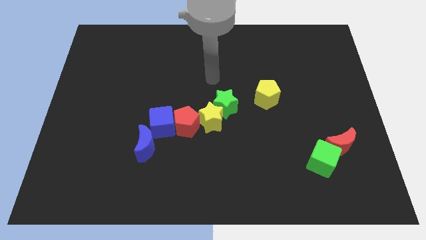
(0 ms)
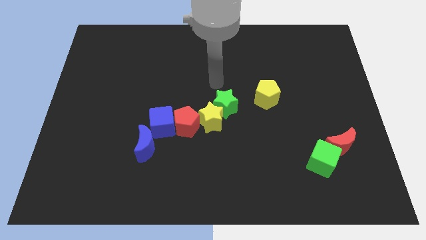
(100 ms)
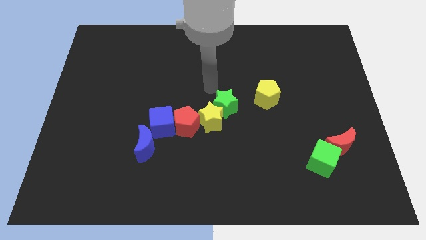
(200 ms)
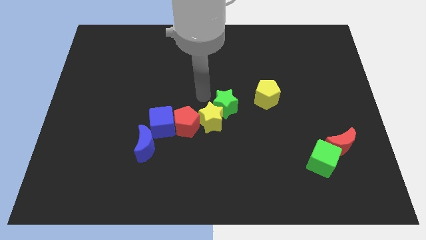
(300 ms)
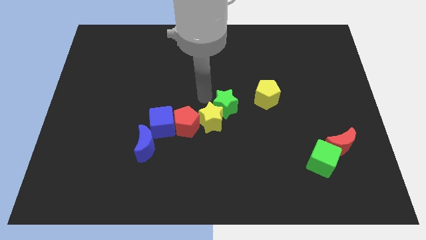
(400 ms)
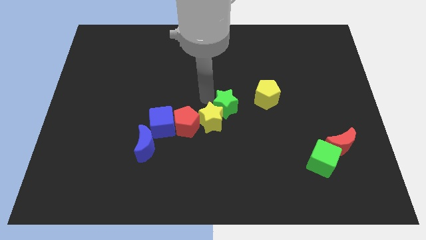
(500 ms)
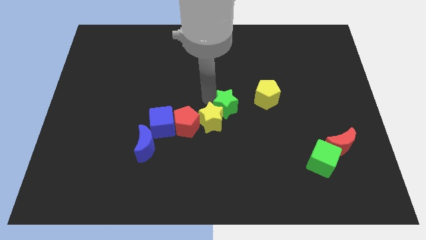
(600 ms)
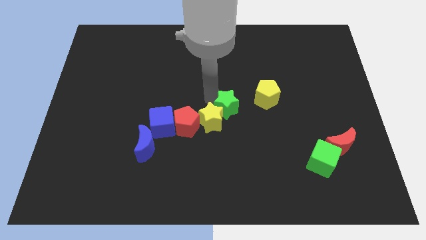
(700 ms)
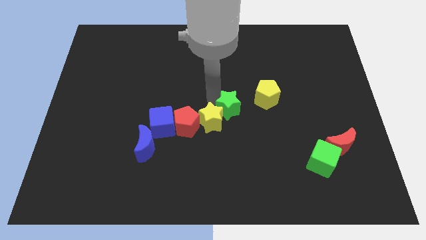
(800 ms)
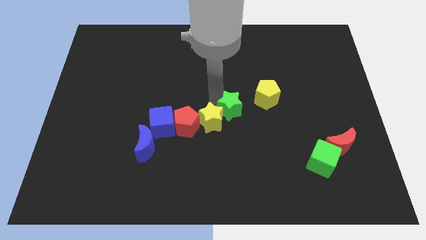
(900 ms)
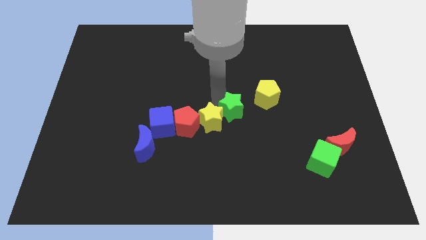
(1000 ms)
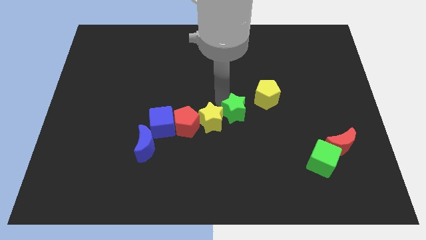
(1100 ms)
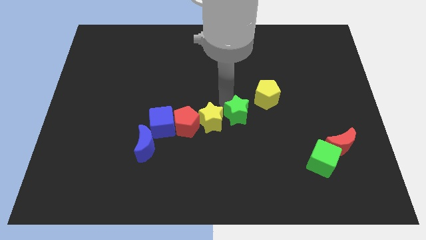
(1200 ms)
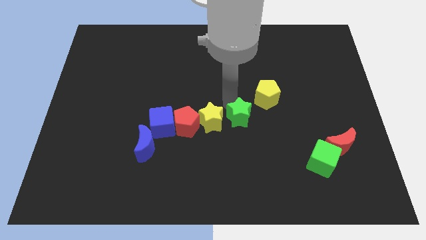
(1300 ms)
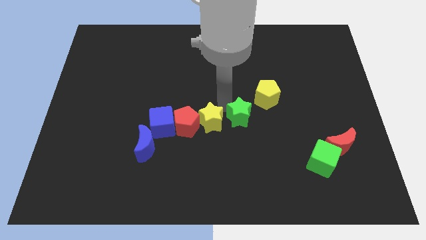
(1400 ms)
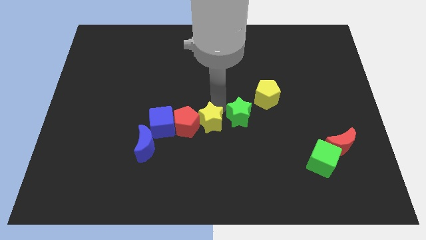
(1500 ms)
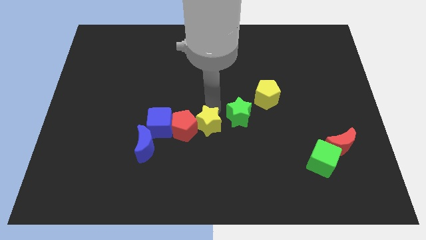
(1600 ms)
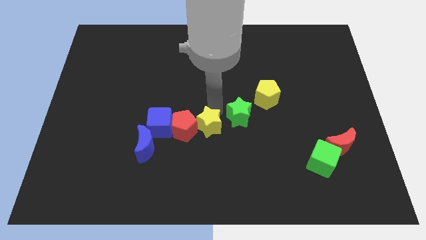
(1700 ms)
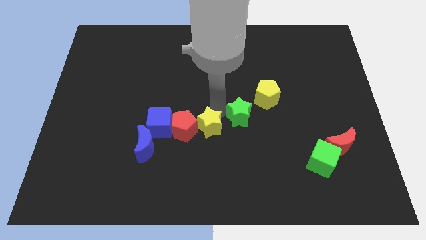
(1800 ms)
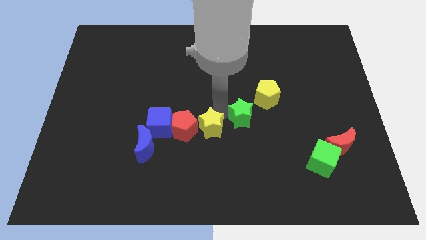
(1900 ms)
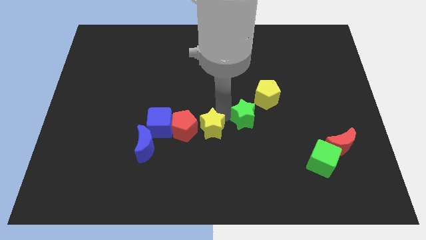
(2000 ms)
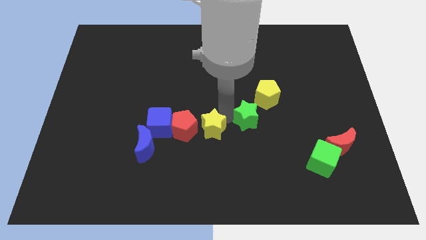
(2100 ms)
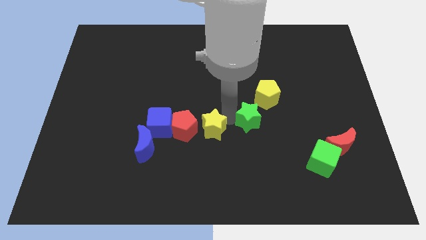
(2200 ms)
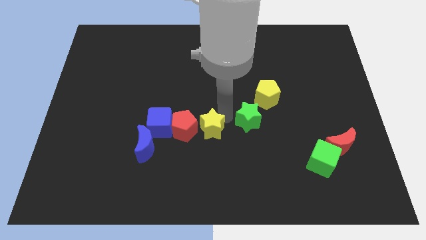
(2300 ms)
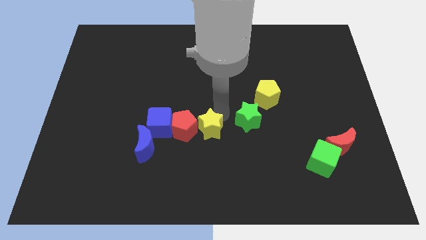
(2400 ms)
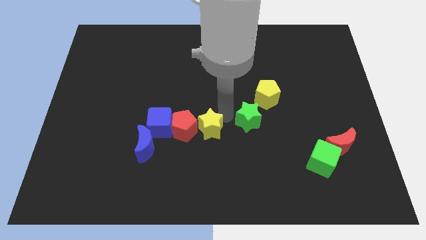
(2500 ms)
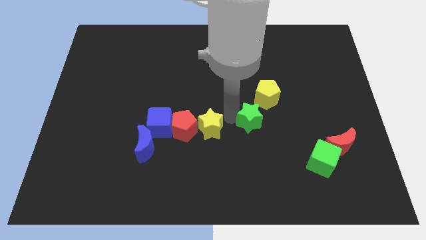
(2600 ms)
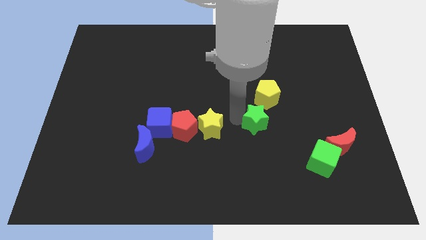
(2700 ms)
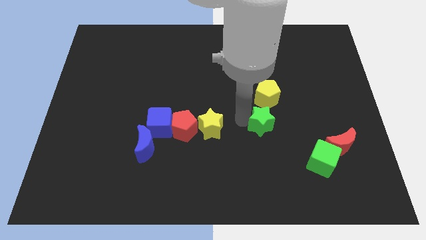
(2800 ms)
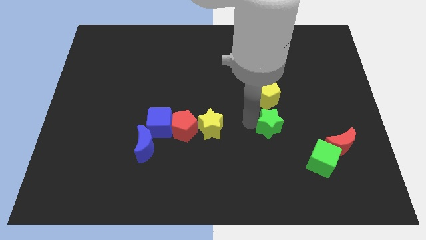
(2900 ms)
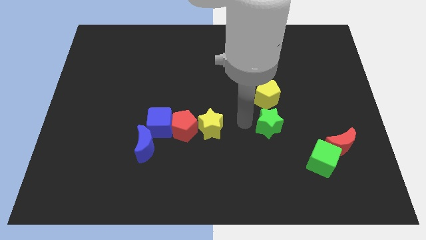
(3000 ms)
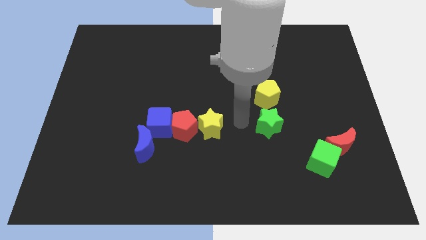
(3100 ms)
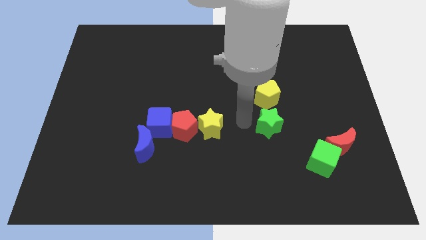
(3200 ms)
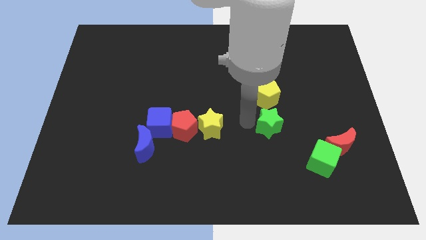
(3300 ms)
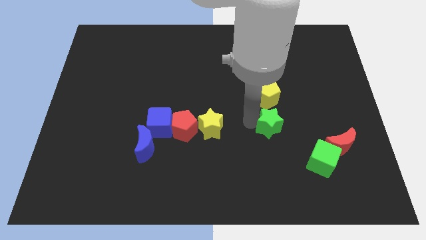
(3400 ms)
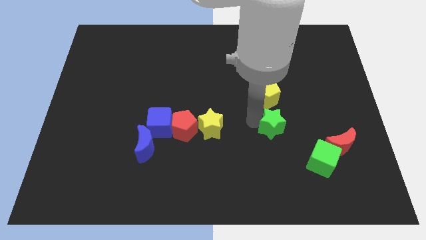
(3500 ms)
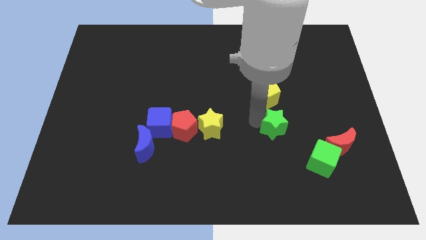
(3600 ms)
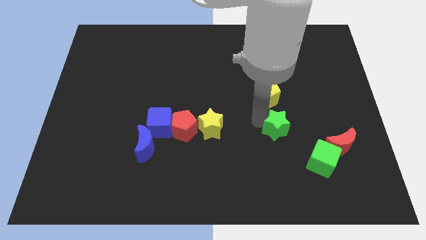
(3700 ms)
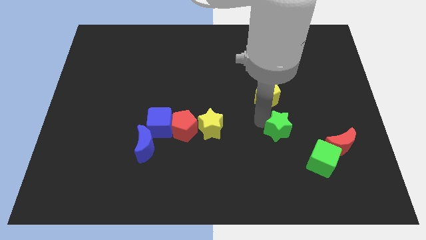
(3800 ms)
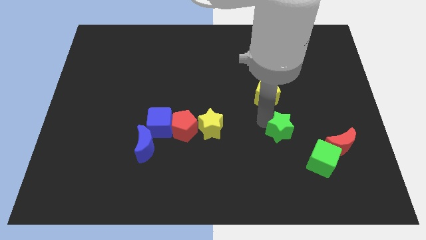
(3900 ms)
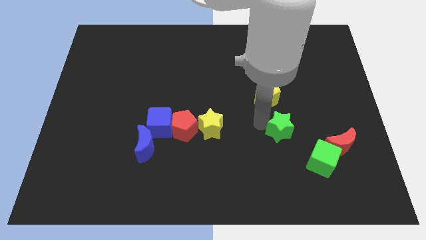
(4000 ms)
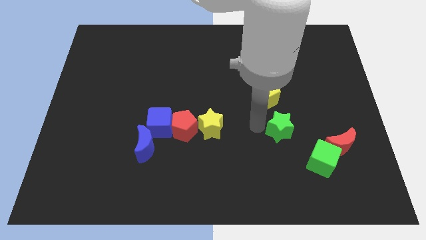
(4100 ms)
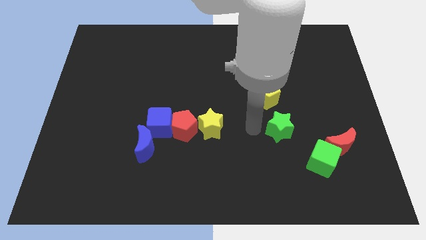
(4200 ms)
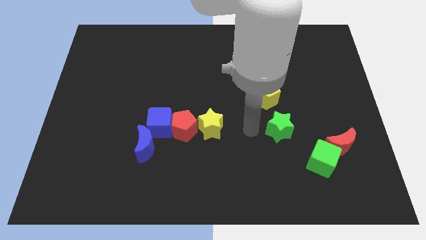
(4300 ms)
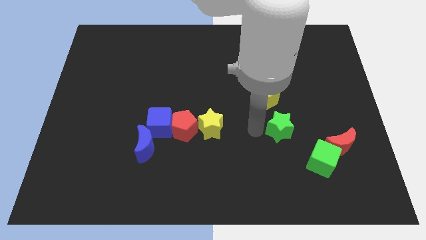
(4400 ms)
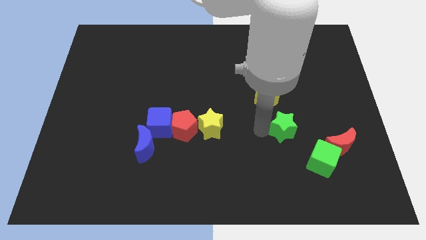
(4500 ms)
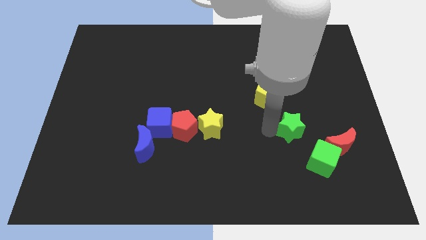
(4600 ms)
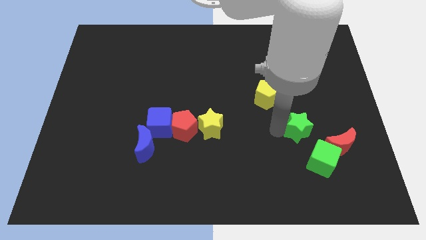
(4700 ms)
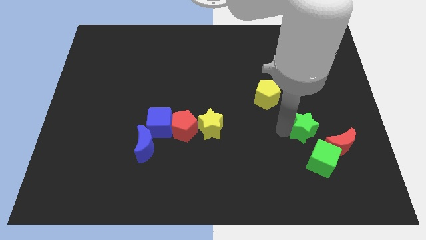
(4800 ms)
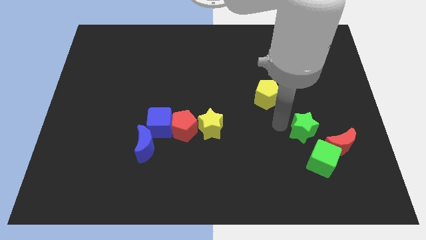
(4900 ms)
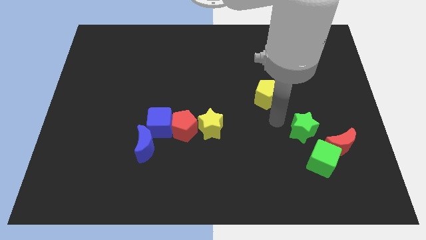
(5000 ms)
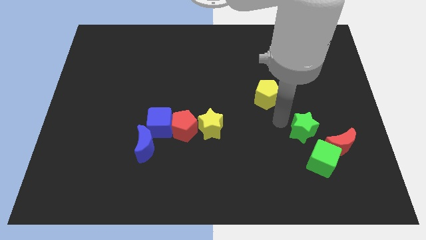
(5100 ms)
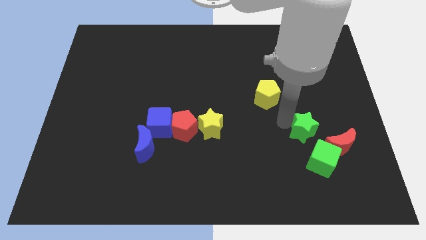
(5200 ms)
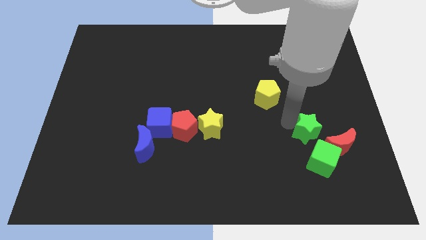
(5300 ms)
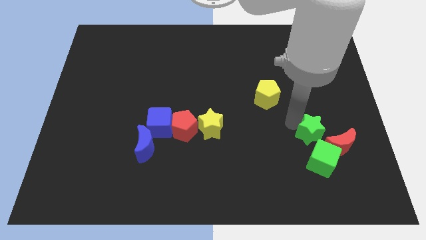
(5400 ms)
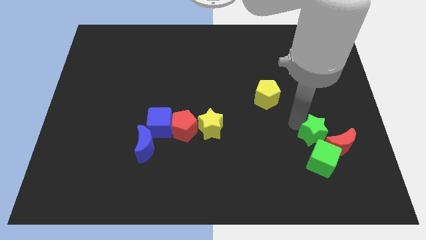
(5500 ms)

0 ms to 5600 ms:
slide the green star next to the red moon

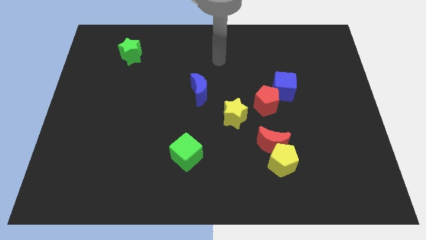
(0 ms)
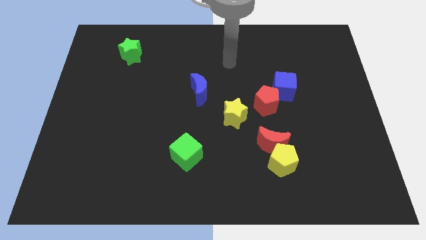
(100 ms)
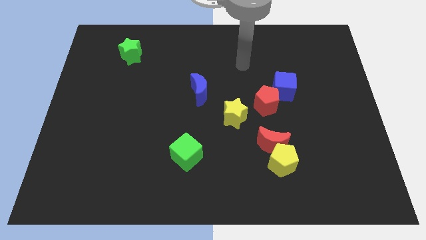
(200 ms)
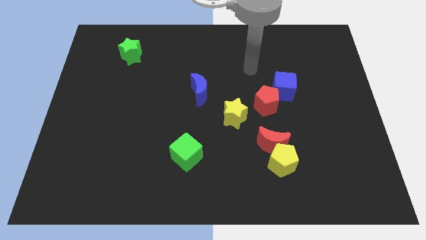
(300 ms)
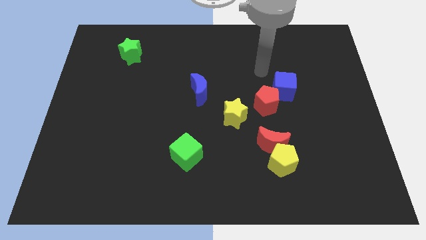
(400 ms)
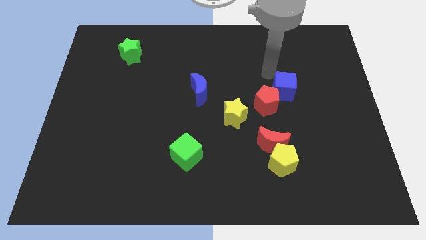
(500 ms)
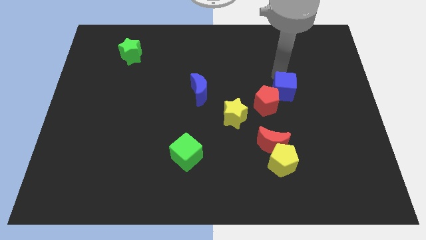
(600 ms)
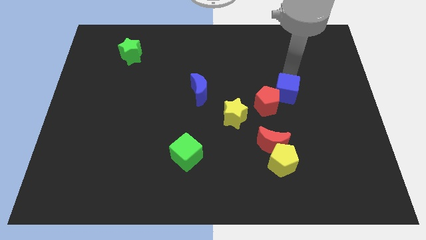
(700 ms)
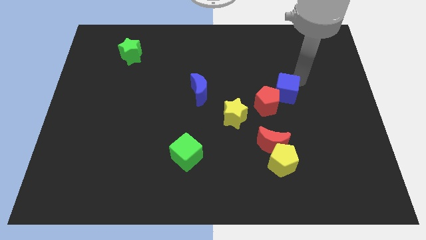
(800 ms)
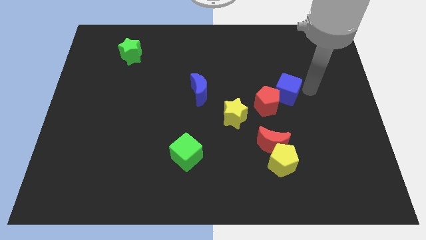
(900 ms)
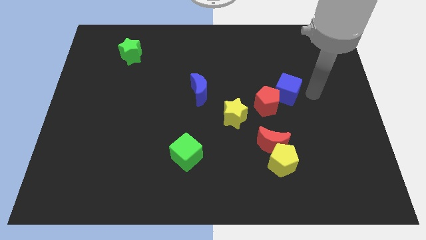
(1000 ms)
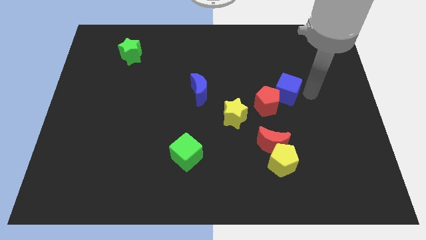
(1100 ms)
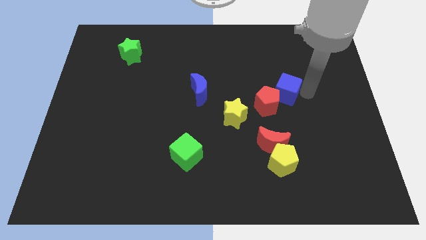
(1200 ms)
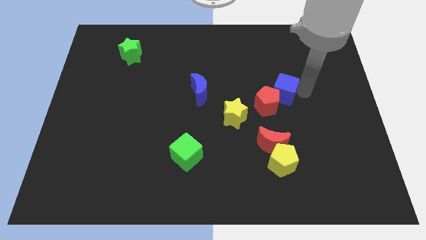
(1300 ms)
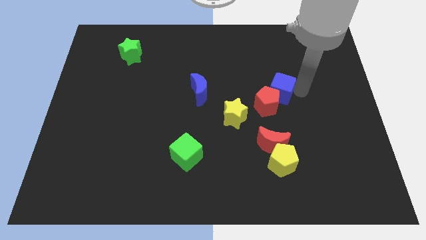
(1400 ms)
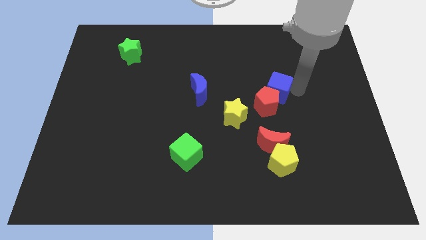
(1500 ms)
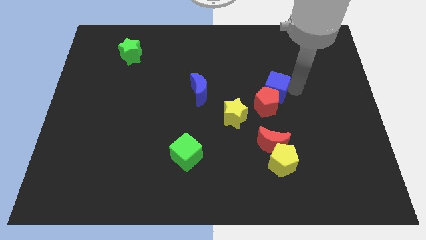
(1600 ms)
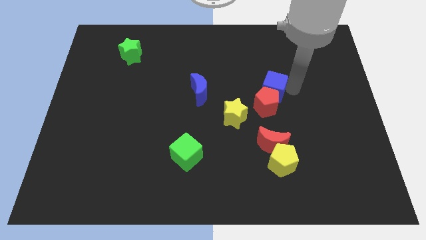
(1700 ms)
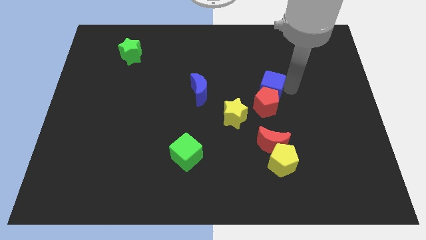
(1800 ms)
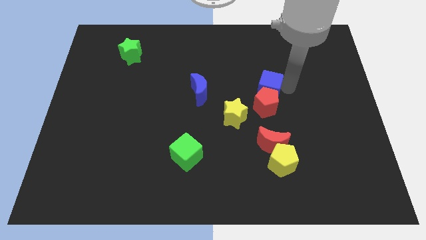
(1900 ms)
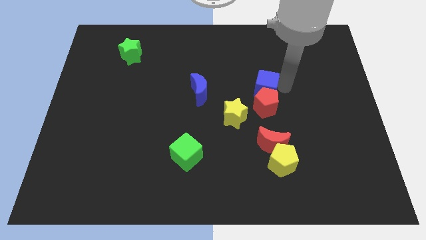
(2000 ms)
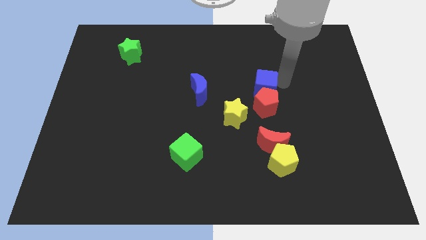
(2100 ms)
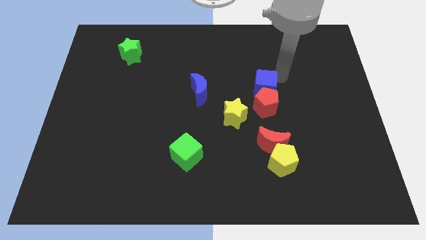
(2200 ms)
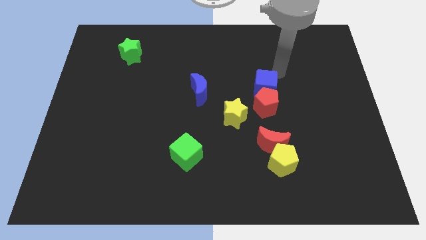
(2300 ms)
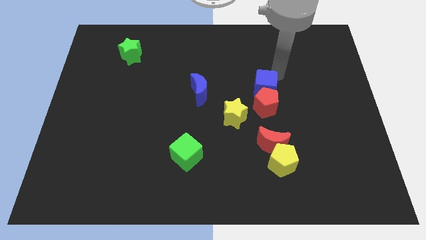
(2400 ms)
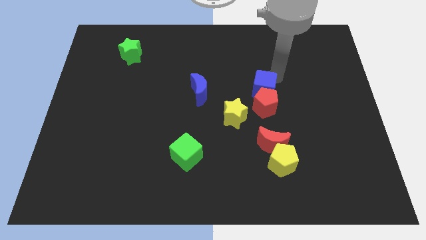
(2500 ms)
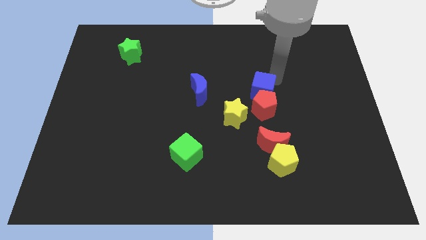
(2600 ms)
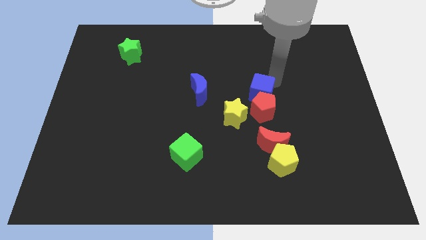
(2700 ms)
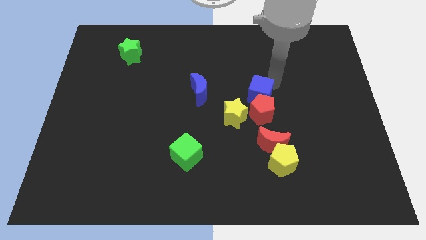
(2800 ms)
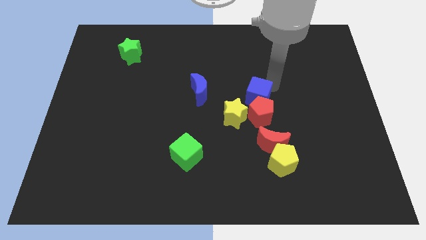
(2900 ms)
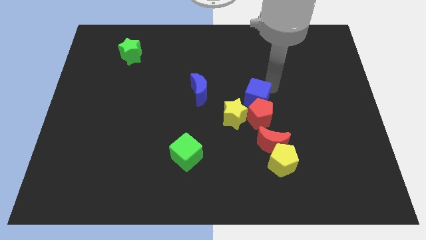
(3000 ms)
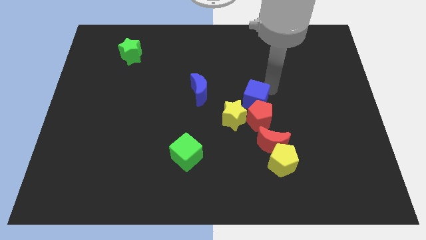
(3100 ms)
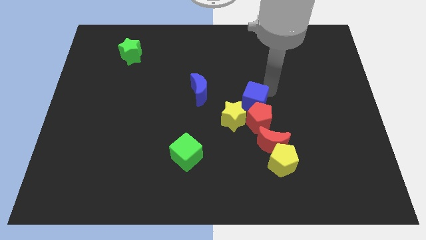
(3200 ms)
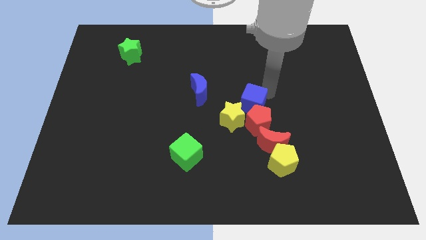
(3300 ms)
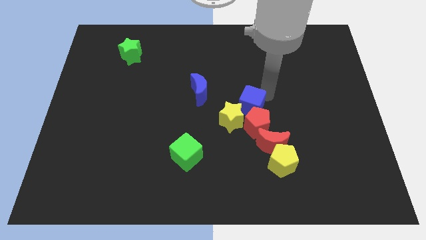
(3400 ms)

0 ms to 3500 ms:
move the blue cube to the yellow star
